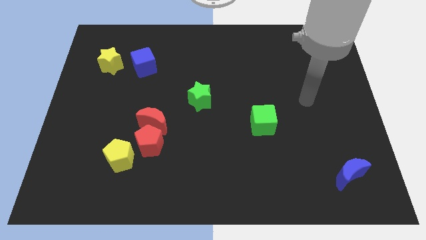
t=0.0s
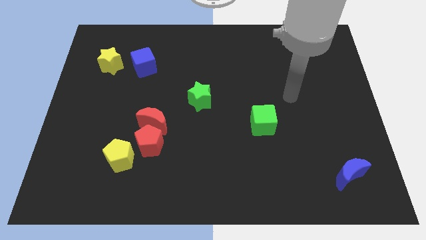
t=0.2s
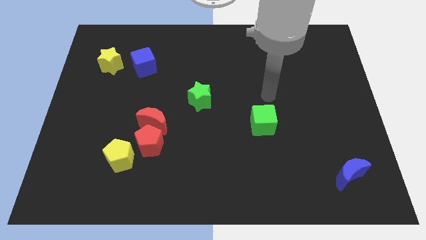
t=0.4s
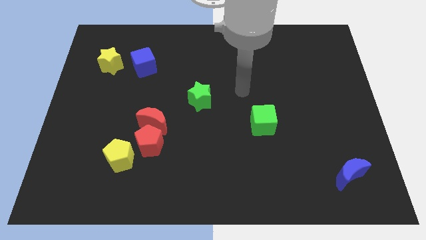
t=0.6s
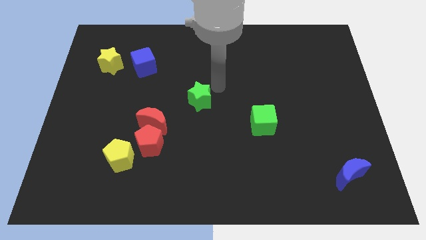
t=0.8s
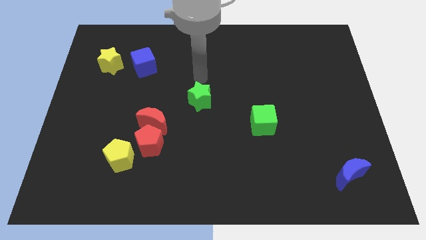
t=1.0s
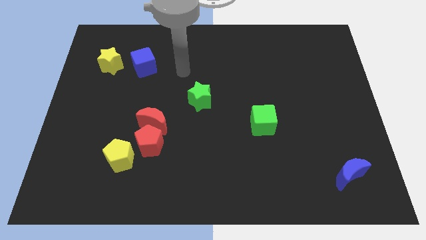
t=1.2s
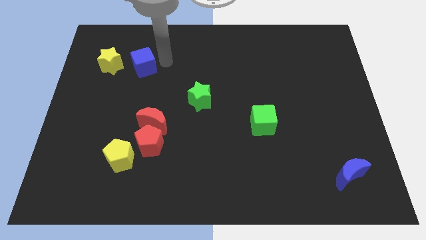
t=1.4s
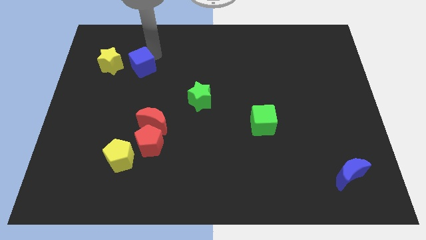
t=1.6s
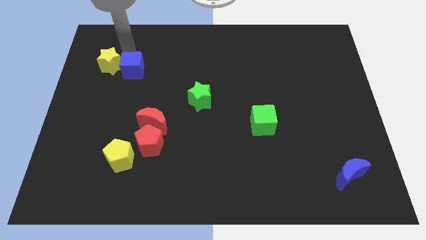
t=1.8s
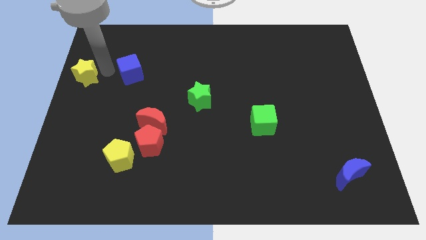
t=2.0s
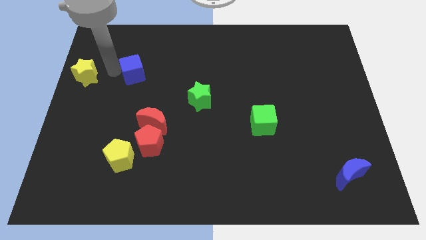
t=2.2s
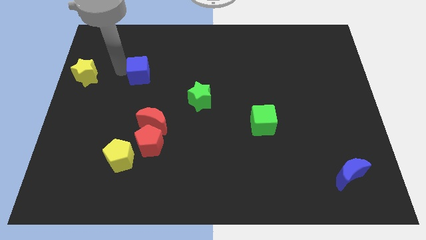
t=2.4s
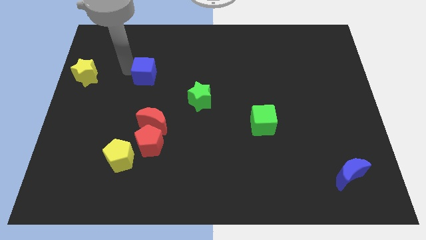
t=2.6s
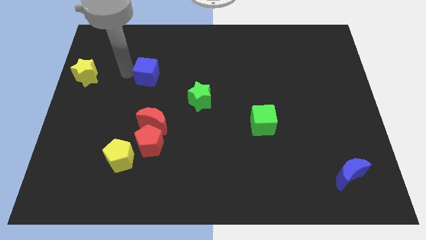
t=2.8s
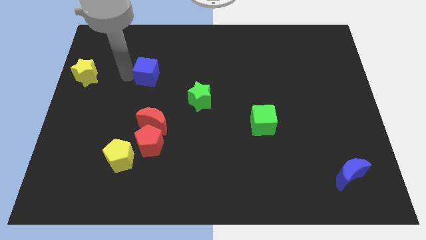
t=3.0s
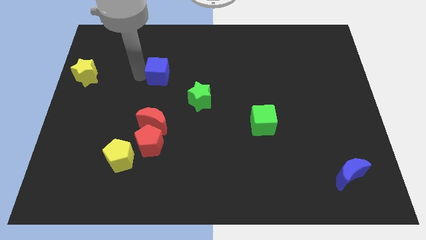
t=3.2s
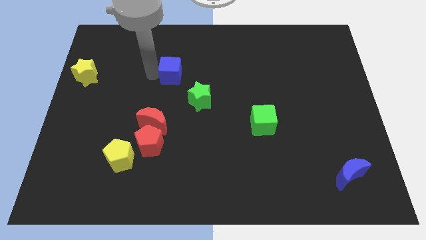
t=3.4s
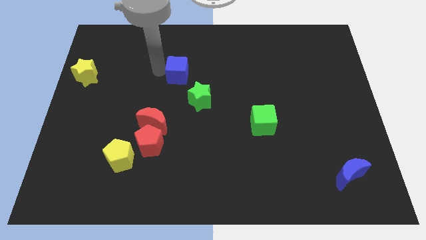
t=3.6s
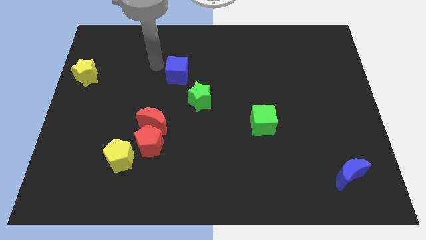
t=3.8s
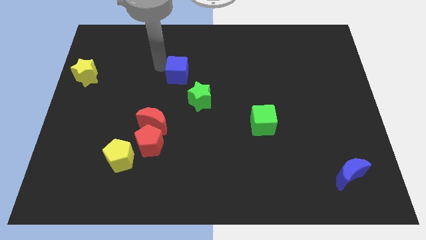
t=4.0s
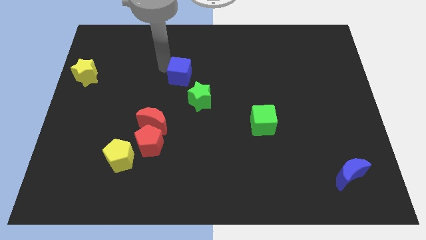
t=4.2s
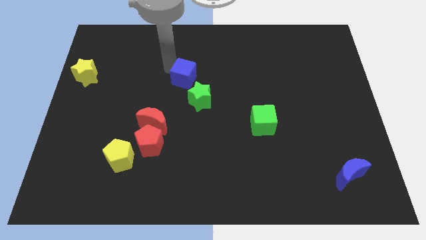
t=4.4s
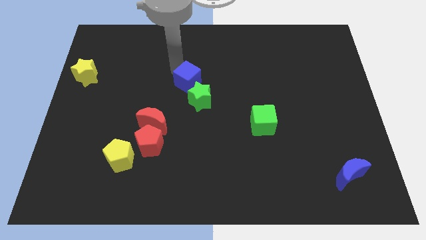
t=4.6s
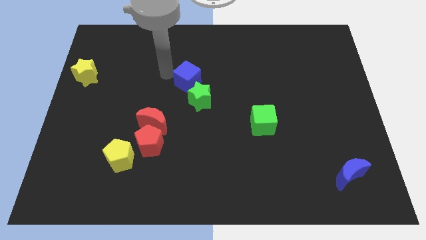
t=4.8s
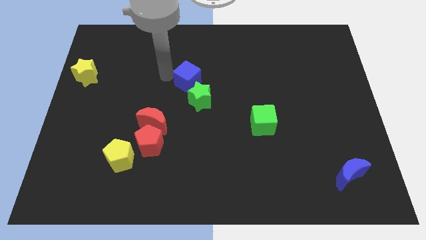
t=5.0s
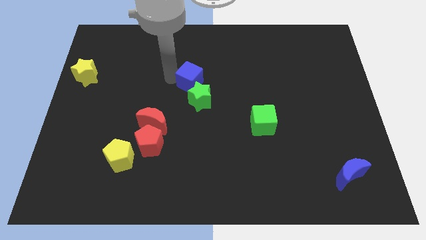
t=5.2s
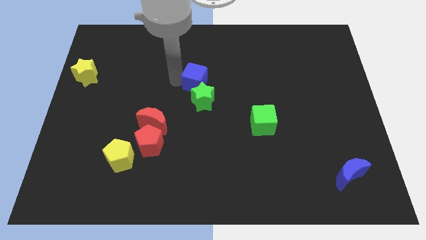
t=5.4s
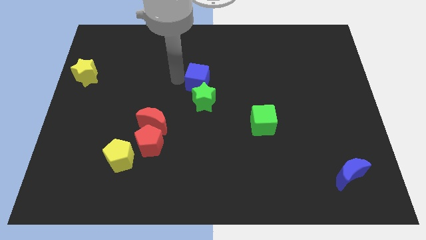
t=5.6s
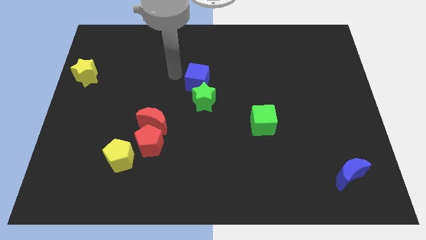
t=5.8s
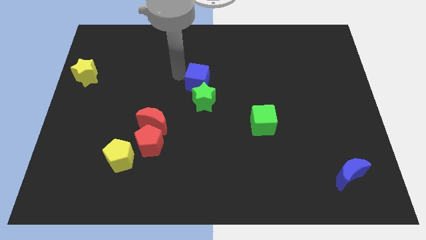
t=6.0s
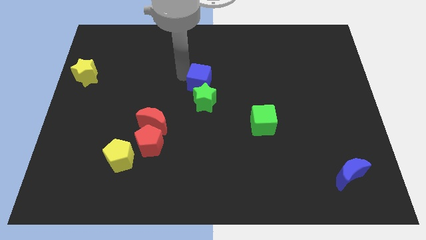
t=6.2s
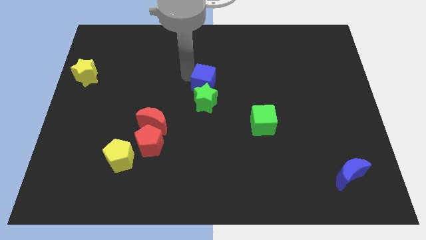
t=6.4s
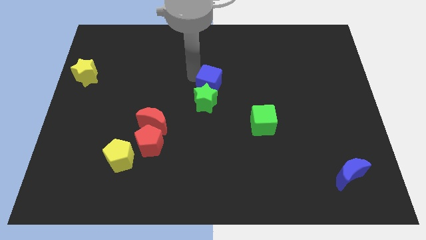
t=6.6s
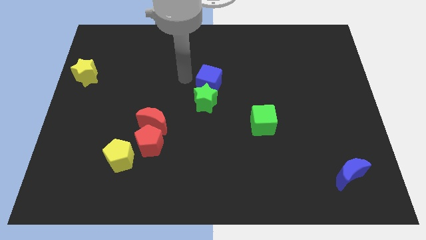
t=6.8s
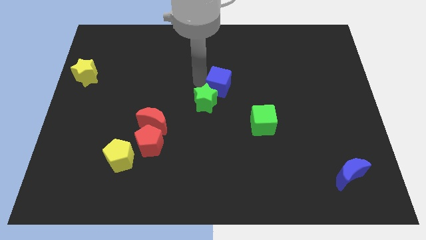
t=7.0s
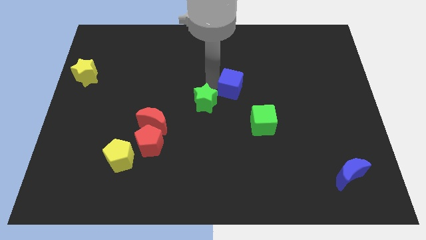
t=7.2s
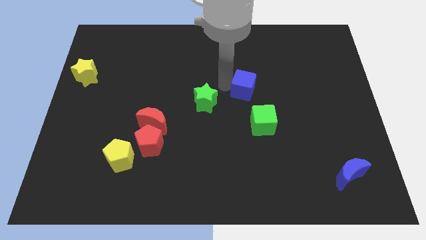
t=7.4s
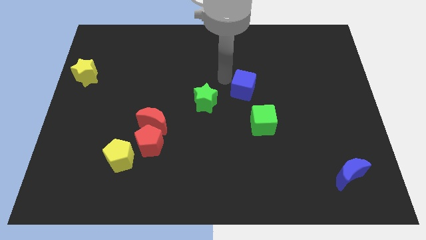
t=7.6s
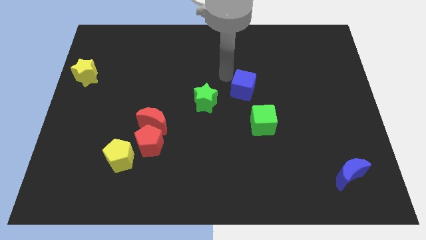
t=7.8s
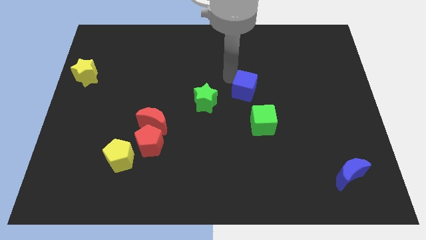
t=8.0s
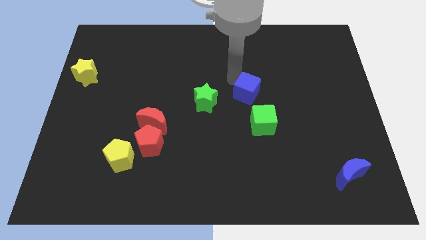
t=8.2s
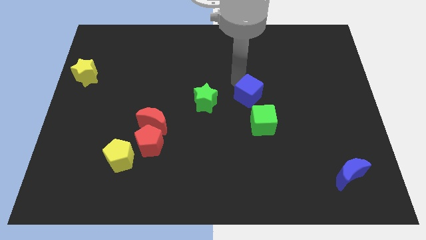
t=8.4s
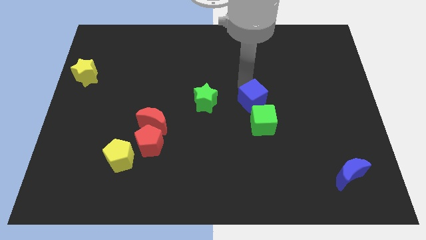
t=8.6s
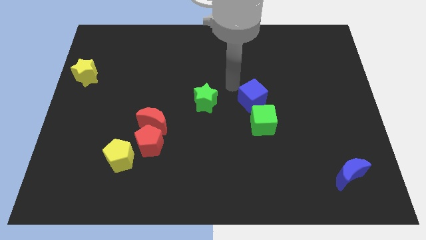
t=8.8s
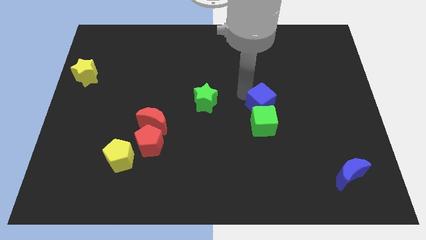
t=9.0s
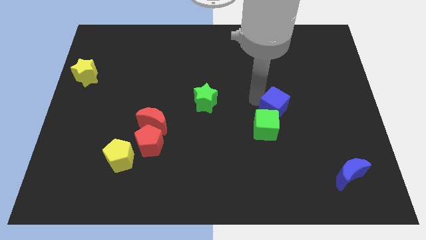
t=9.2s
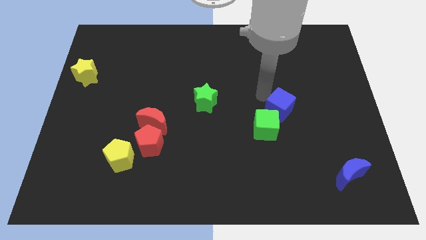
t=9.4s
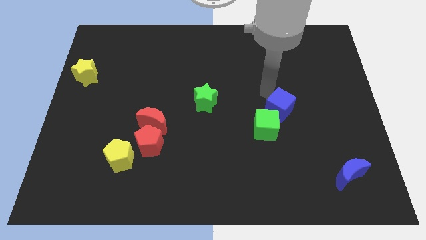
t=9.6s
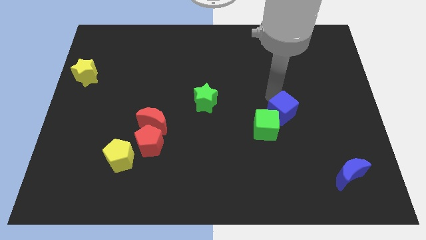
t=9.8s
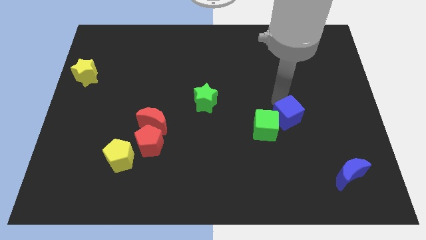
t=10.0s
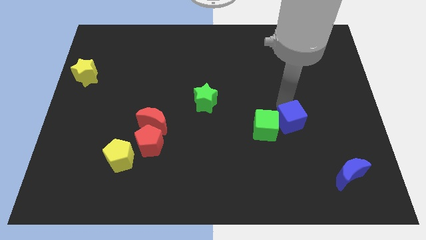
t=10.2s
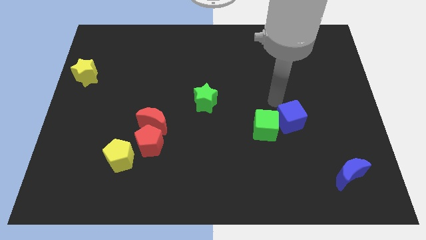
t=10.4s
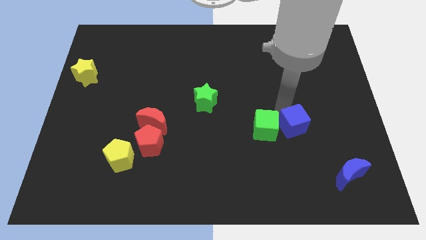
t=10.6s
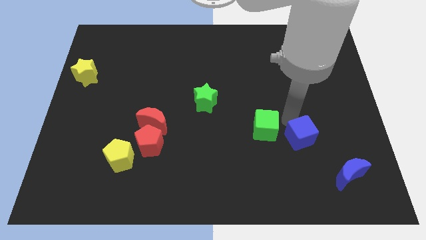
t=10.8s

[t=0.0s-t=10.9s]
push the blue cube to the top left side of the blue moon

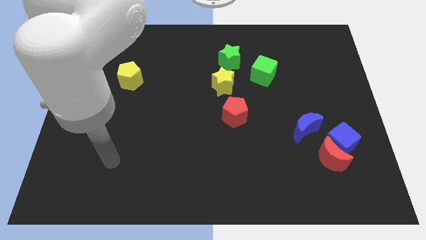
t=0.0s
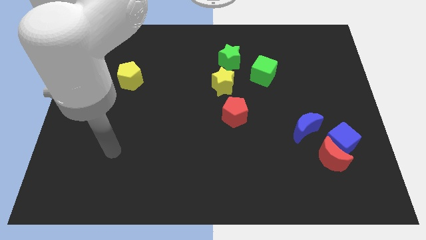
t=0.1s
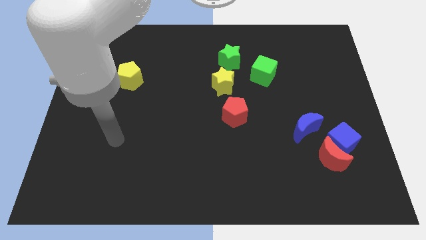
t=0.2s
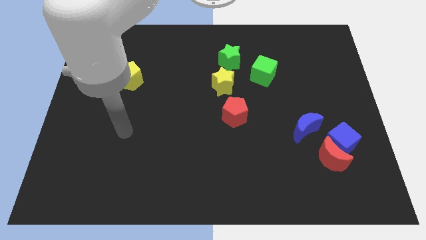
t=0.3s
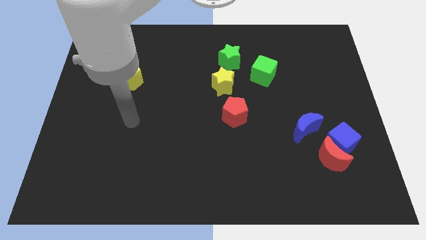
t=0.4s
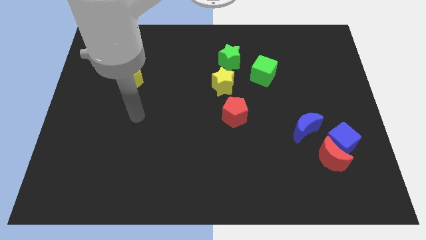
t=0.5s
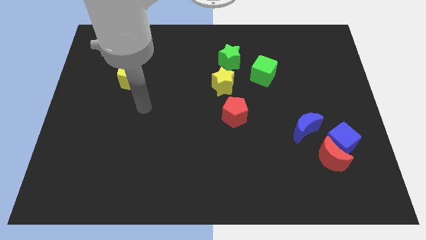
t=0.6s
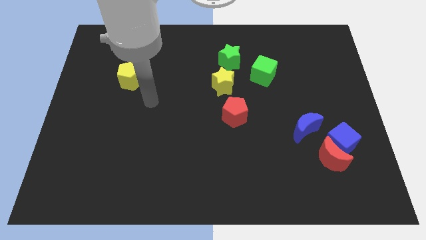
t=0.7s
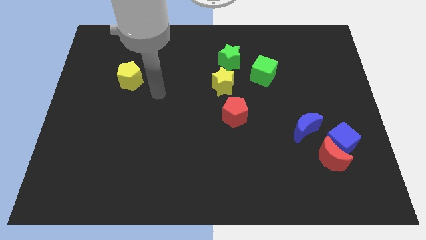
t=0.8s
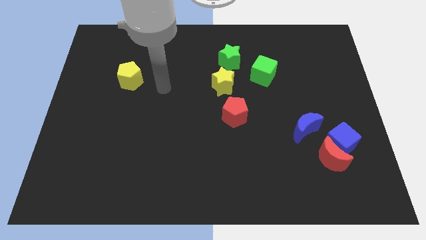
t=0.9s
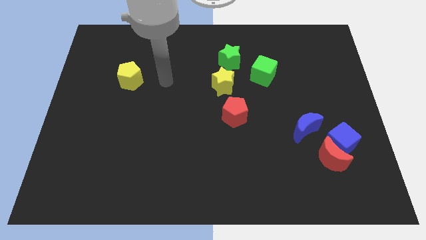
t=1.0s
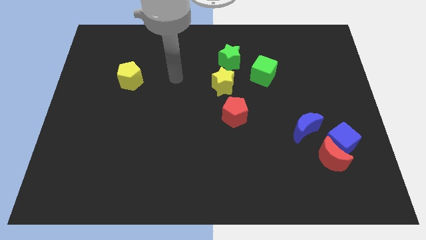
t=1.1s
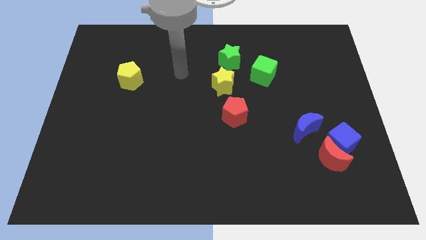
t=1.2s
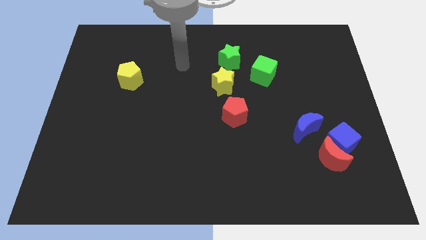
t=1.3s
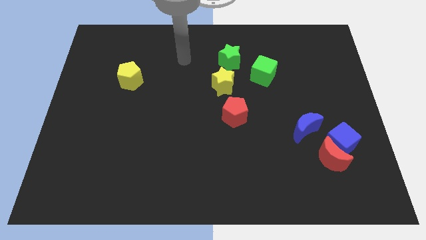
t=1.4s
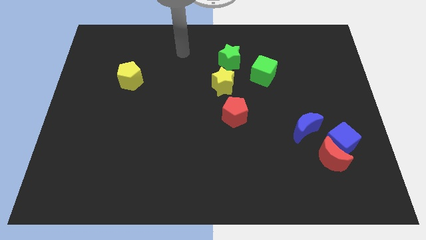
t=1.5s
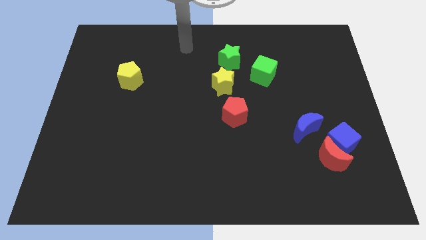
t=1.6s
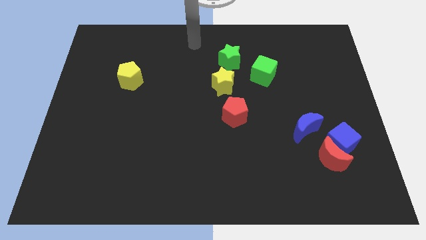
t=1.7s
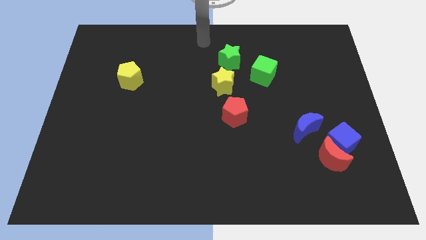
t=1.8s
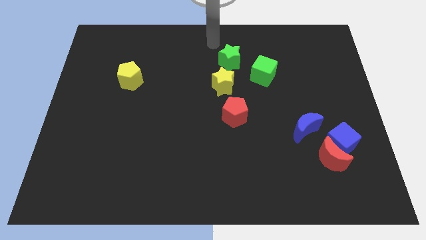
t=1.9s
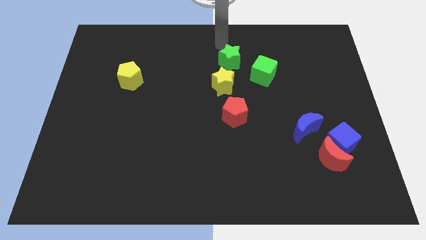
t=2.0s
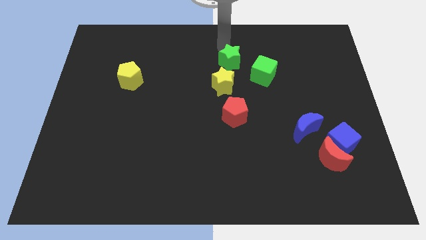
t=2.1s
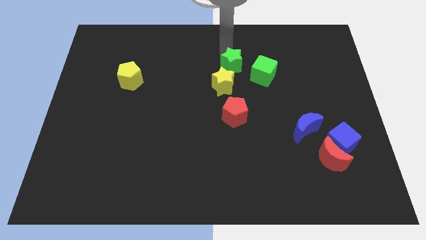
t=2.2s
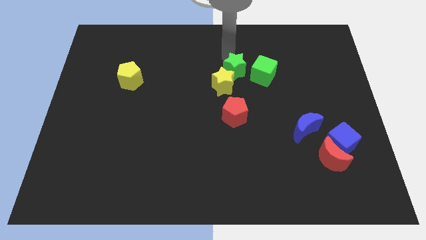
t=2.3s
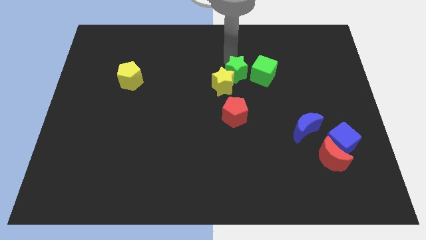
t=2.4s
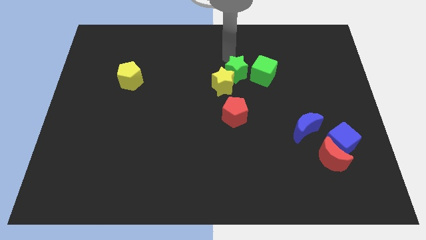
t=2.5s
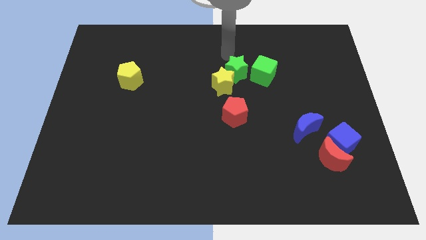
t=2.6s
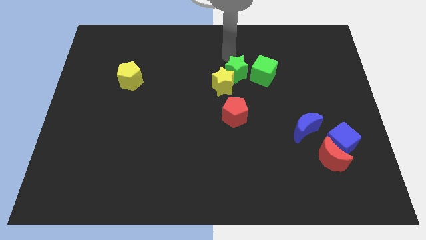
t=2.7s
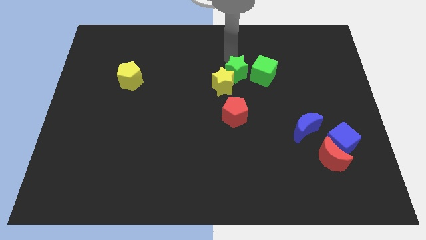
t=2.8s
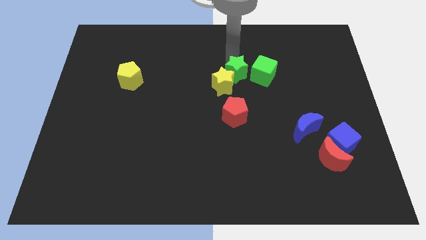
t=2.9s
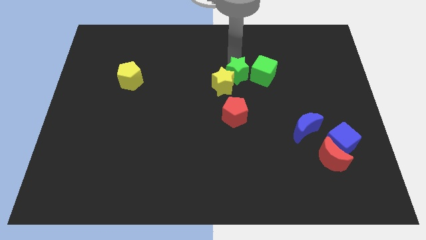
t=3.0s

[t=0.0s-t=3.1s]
move the green star diagonally down and to the left of the green cube
